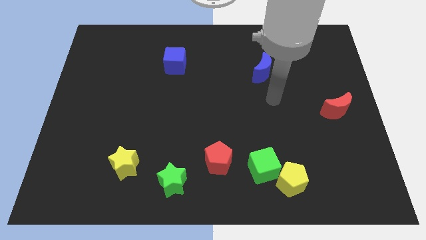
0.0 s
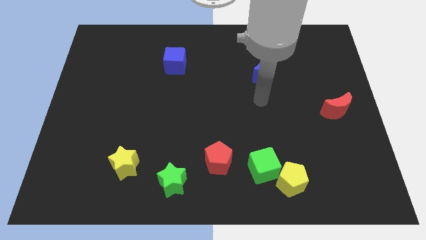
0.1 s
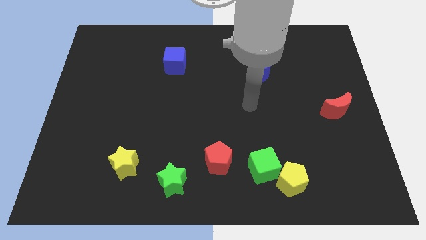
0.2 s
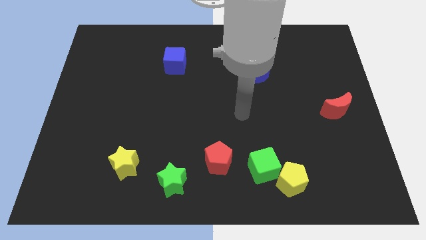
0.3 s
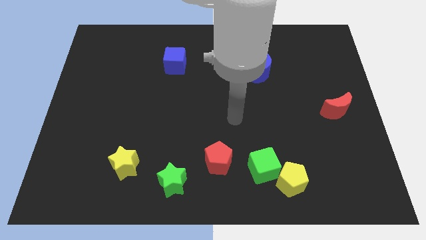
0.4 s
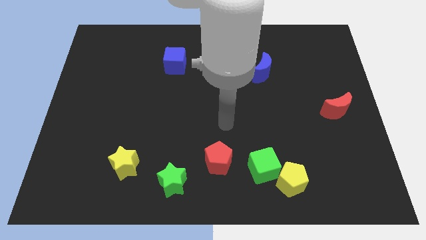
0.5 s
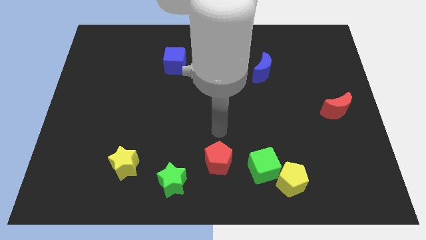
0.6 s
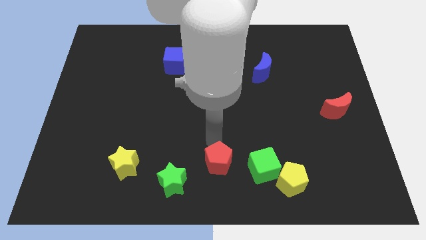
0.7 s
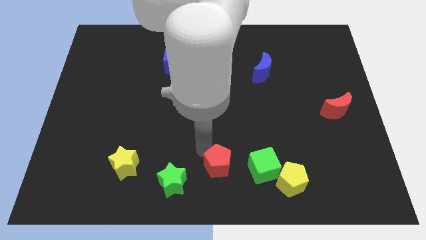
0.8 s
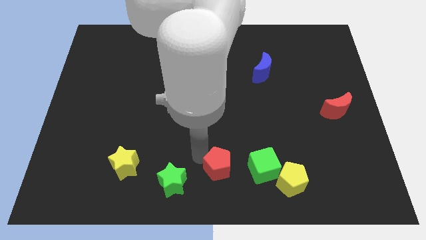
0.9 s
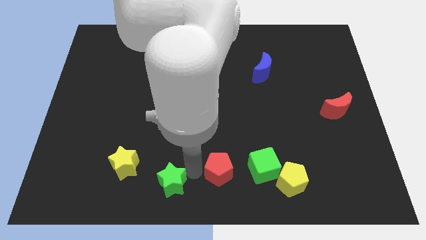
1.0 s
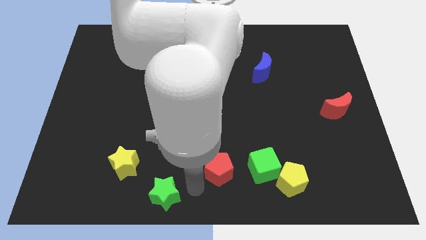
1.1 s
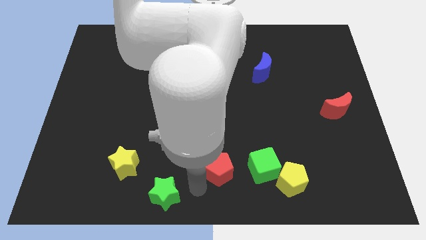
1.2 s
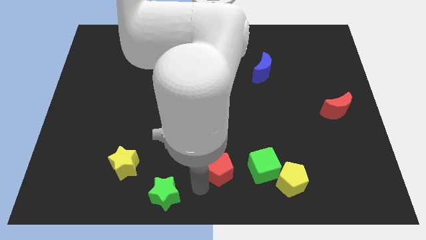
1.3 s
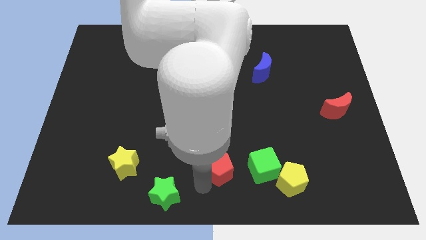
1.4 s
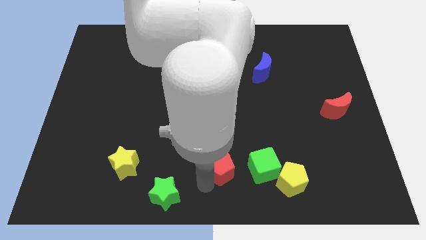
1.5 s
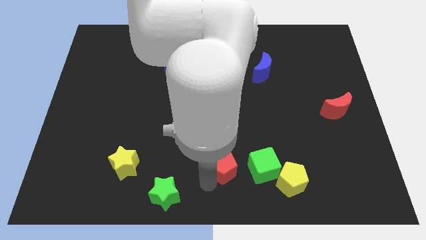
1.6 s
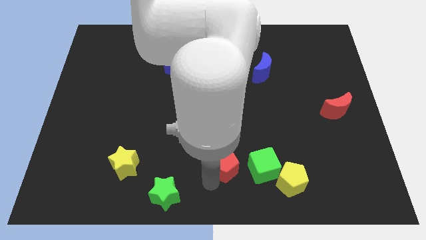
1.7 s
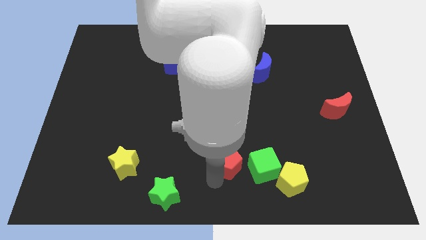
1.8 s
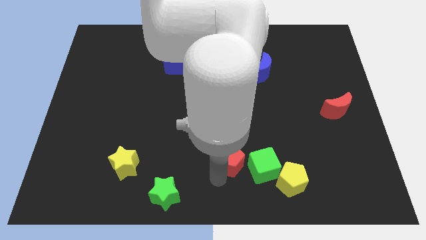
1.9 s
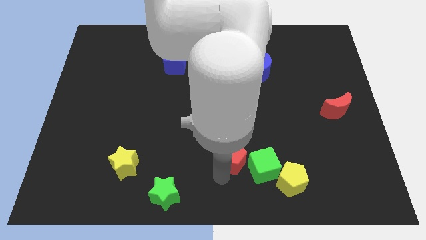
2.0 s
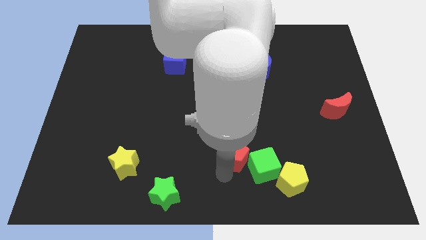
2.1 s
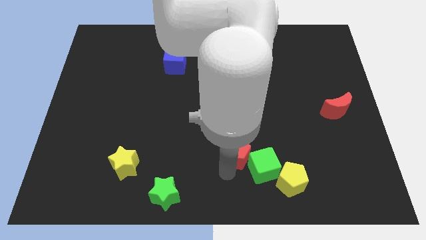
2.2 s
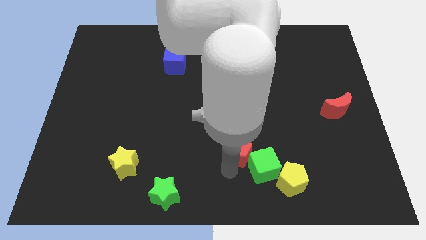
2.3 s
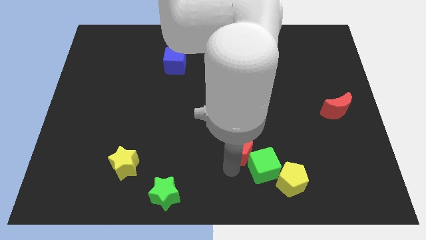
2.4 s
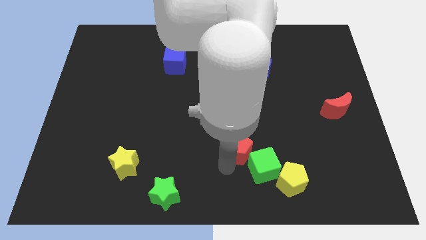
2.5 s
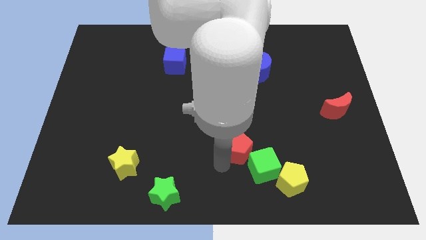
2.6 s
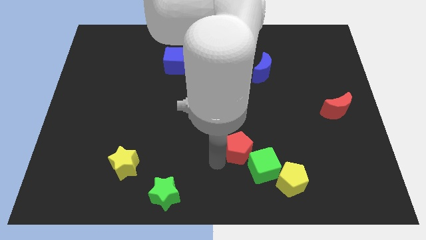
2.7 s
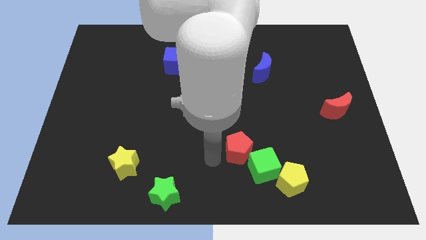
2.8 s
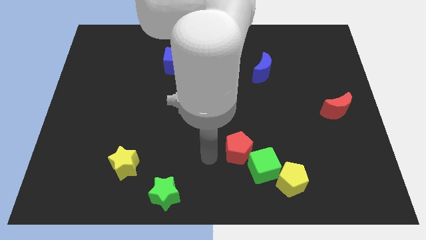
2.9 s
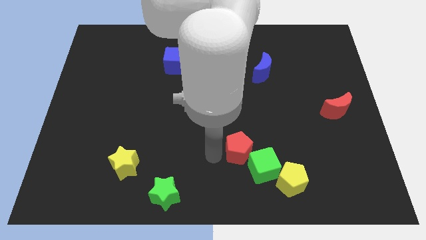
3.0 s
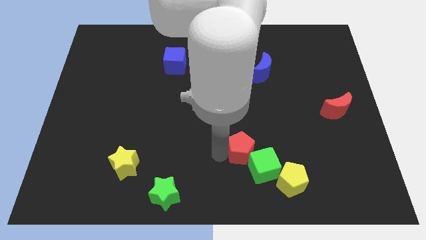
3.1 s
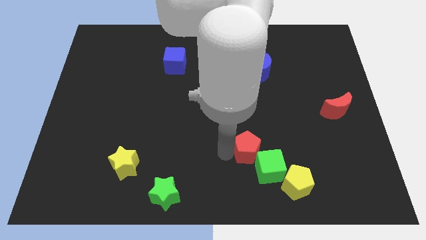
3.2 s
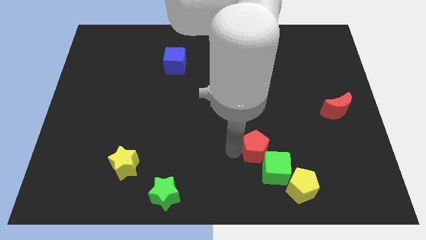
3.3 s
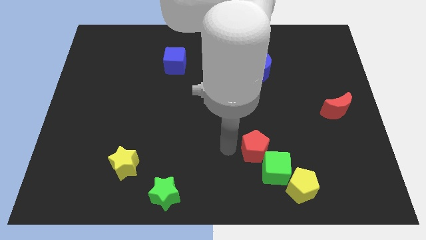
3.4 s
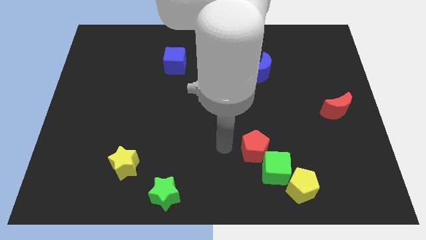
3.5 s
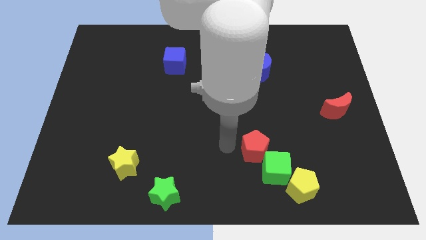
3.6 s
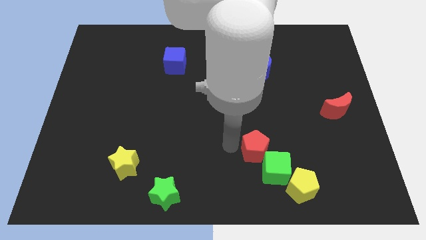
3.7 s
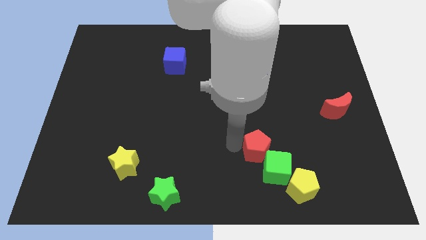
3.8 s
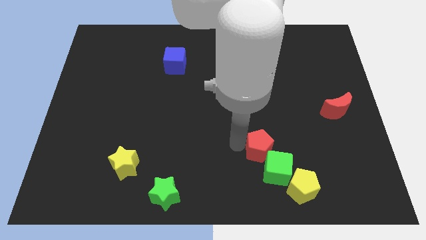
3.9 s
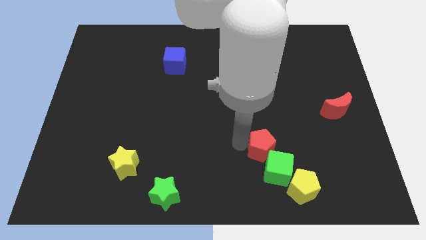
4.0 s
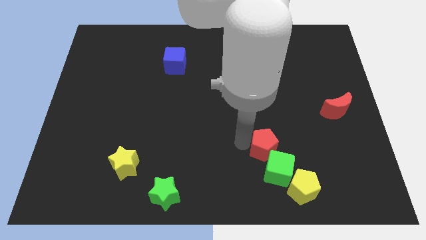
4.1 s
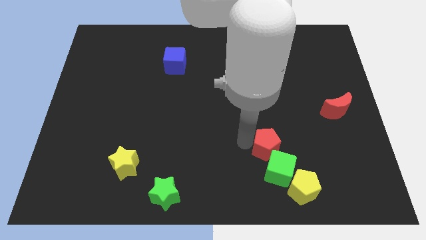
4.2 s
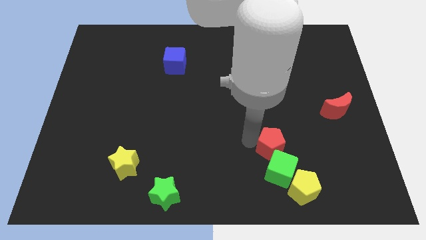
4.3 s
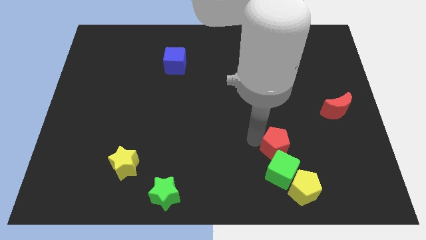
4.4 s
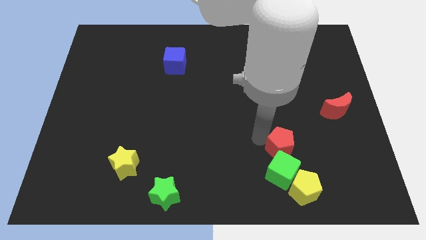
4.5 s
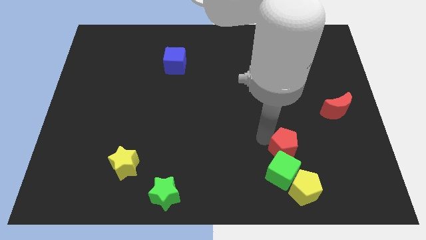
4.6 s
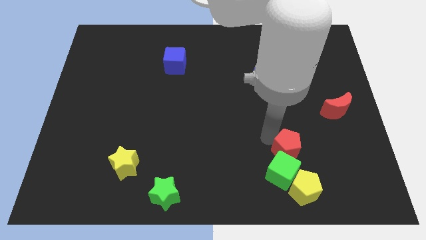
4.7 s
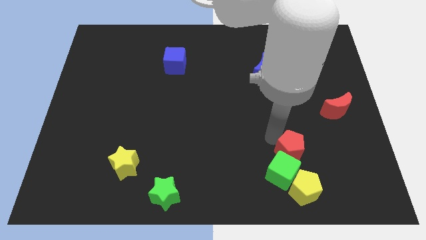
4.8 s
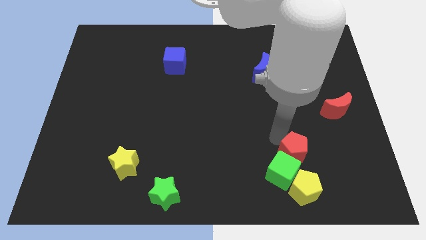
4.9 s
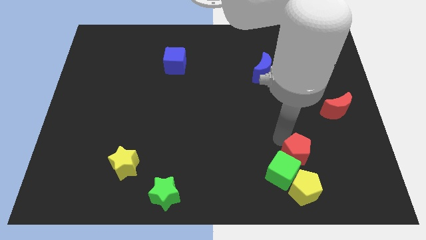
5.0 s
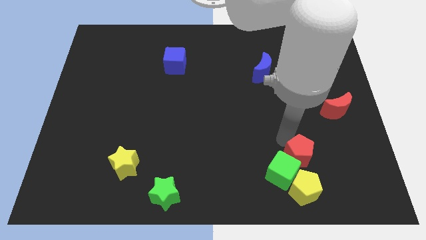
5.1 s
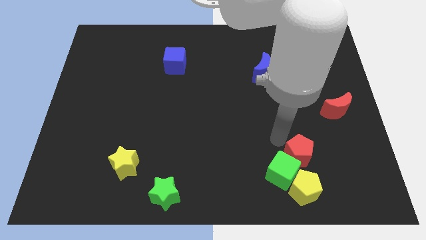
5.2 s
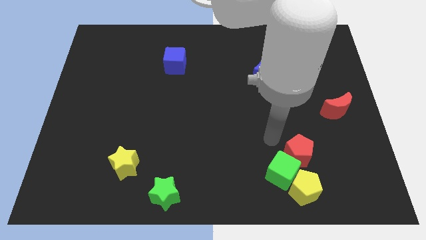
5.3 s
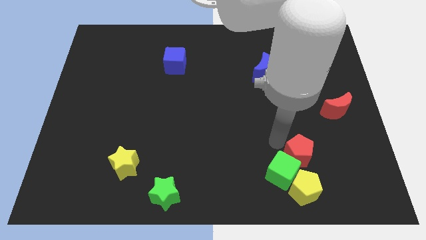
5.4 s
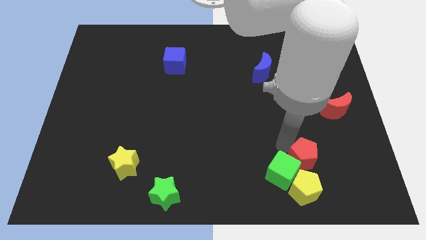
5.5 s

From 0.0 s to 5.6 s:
push the red pentagon to the top right side of the yellow pentagon

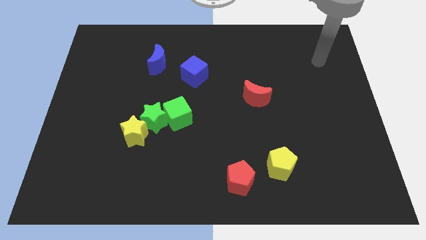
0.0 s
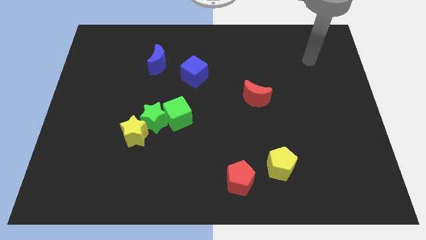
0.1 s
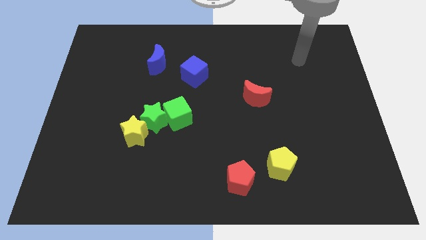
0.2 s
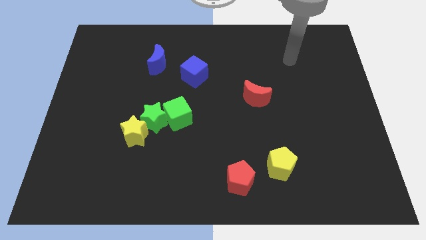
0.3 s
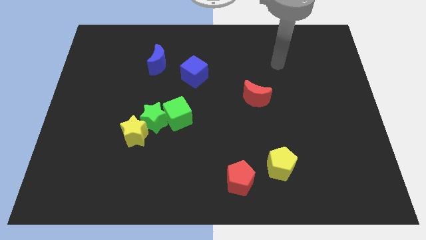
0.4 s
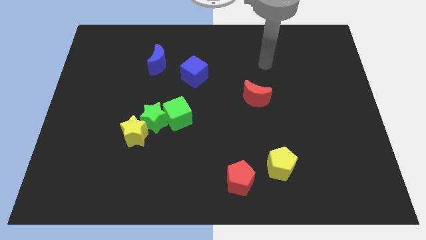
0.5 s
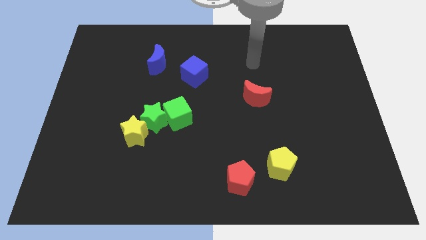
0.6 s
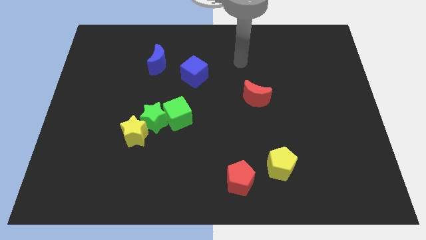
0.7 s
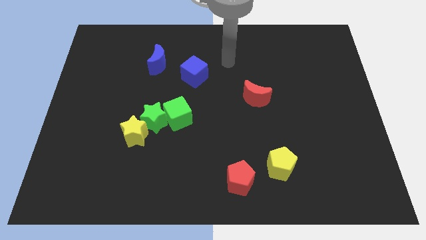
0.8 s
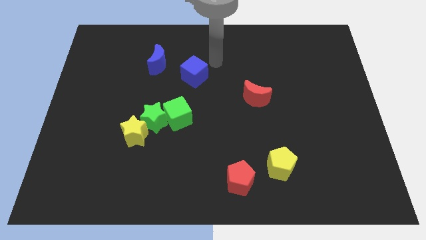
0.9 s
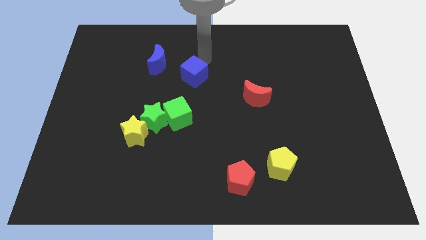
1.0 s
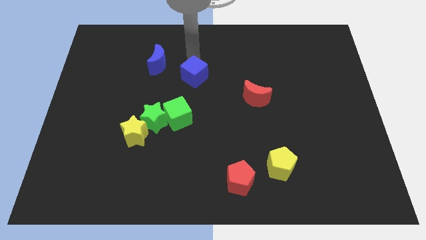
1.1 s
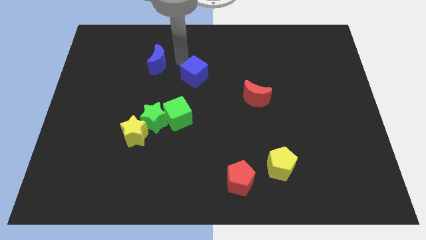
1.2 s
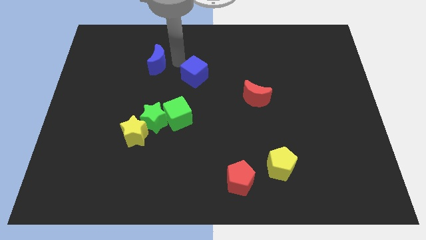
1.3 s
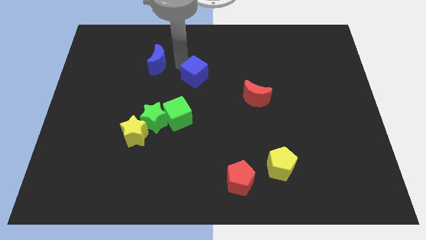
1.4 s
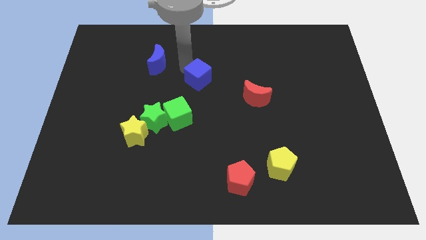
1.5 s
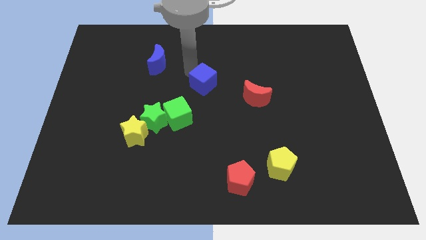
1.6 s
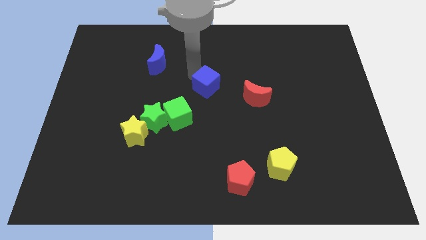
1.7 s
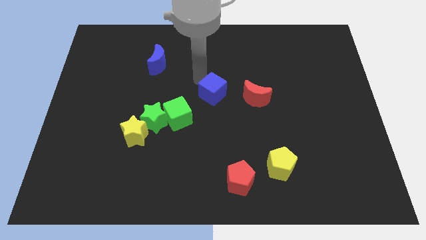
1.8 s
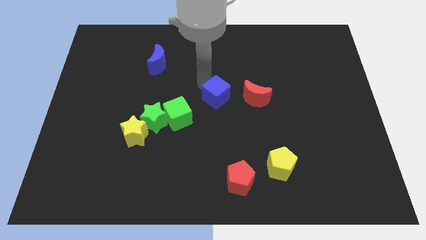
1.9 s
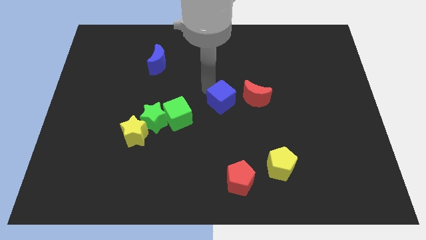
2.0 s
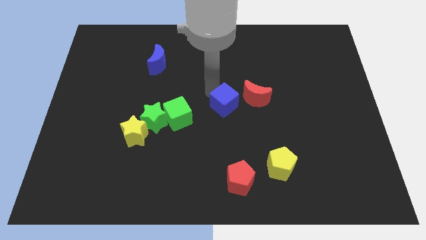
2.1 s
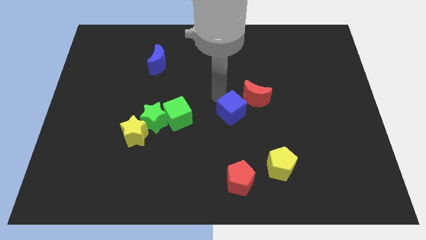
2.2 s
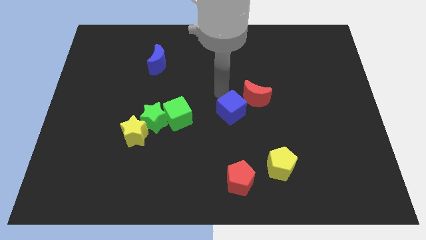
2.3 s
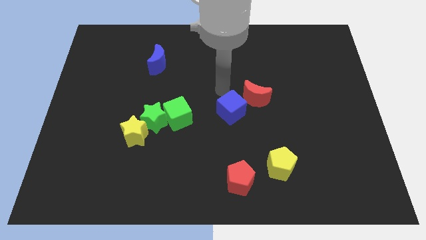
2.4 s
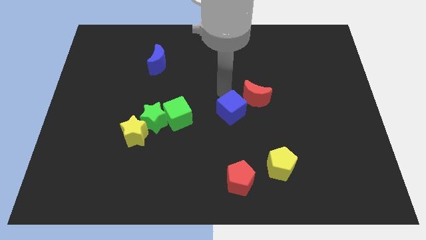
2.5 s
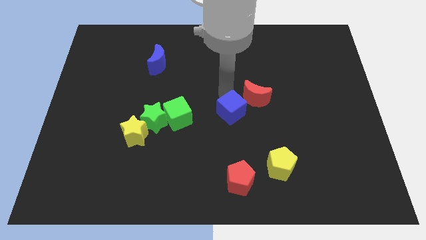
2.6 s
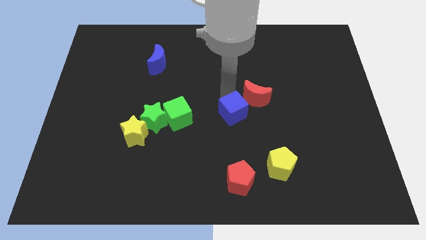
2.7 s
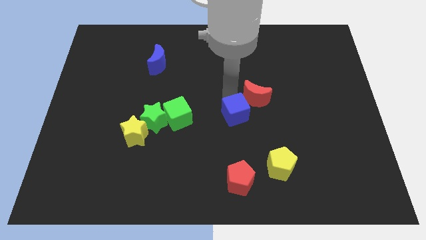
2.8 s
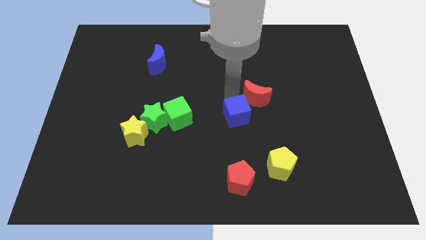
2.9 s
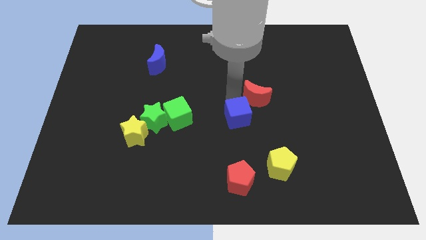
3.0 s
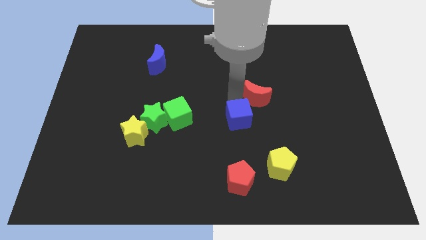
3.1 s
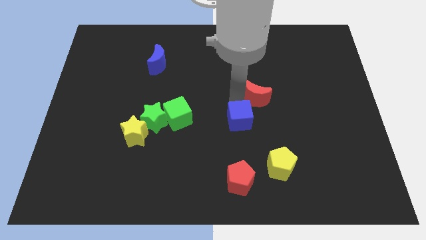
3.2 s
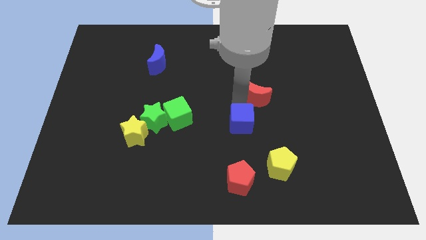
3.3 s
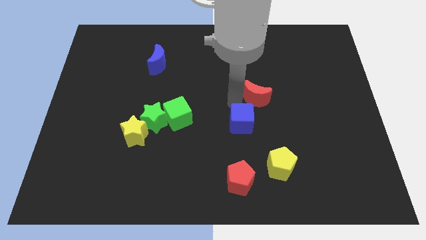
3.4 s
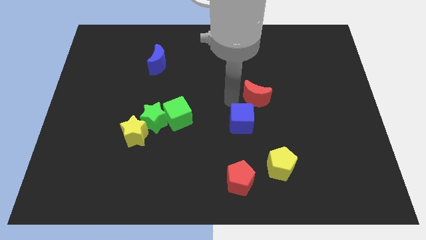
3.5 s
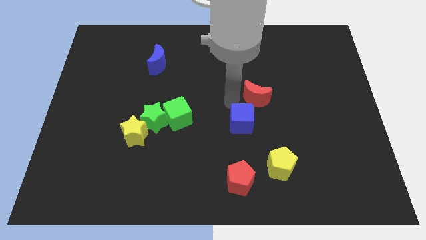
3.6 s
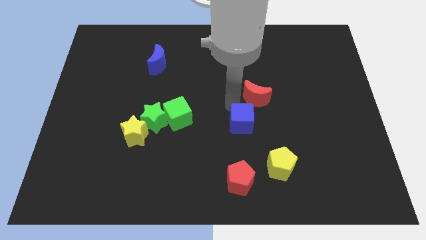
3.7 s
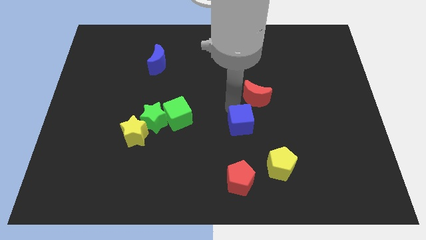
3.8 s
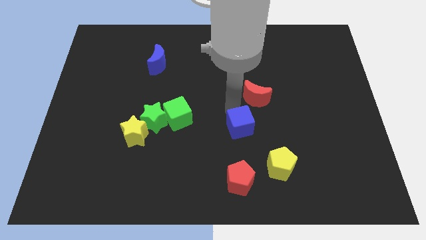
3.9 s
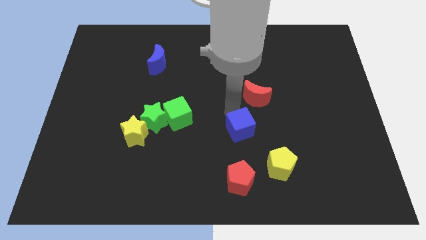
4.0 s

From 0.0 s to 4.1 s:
slide the blue cube to the top left side of the yellow pentagon
